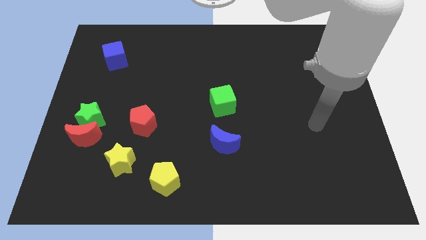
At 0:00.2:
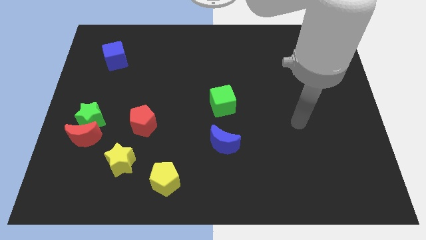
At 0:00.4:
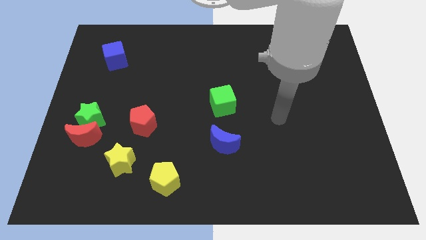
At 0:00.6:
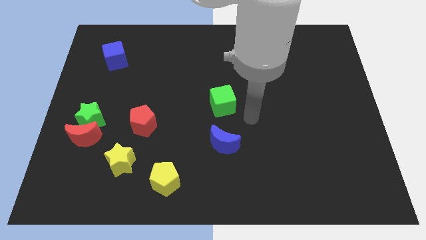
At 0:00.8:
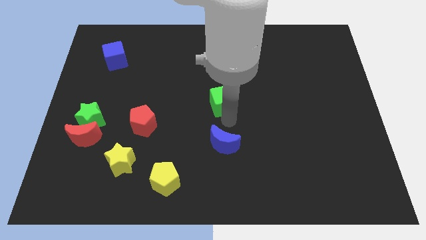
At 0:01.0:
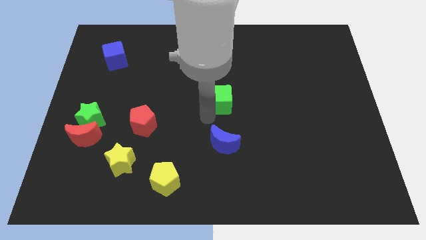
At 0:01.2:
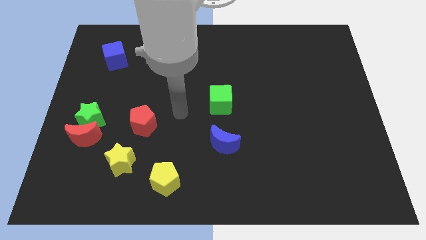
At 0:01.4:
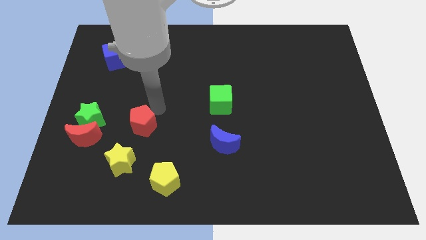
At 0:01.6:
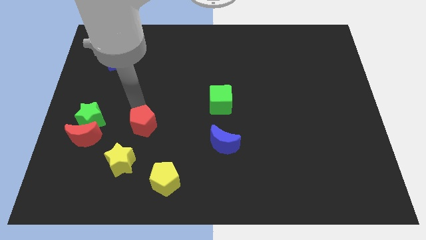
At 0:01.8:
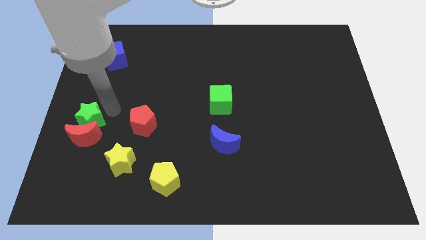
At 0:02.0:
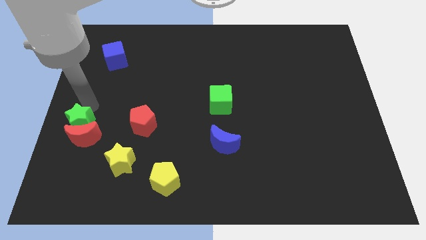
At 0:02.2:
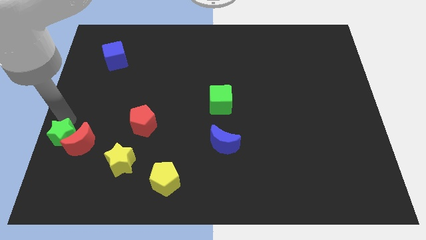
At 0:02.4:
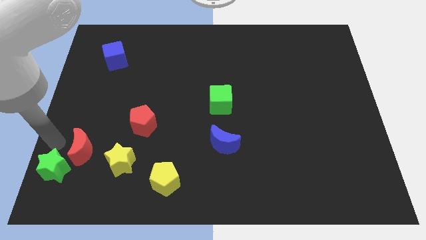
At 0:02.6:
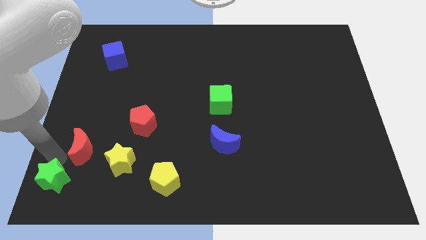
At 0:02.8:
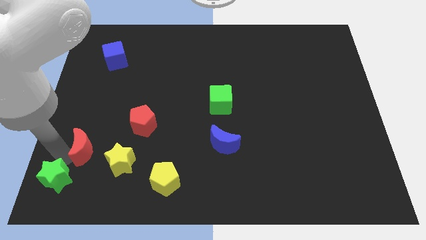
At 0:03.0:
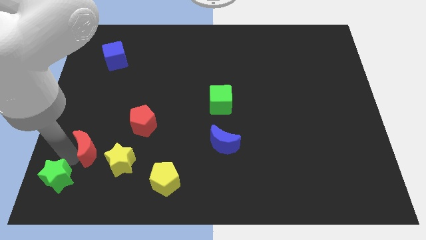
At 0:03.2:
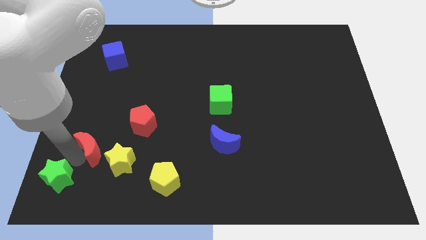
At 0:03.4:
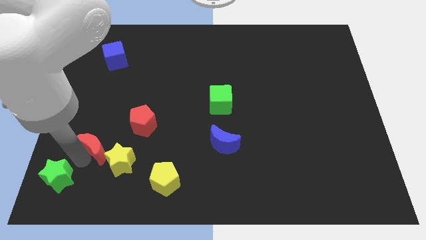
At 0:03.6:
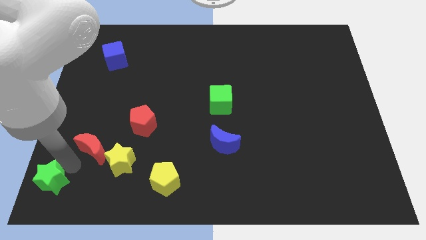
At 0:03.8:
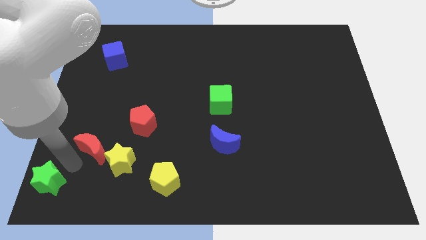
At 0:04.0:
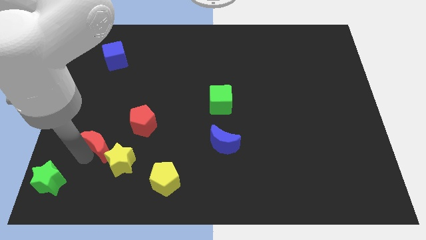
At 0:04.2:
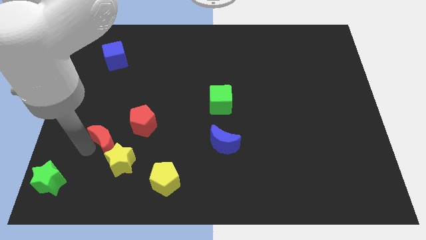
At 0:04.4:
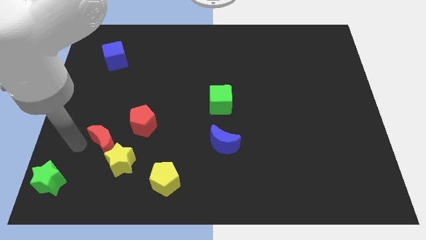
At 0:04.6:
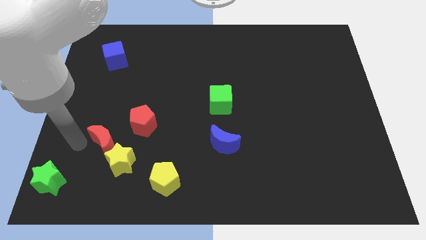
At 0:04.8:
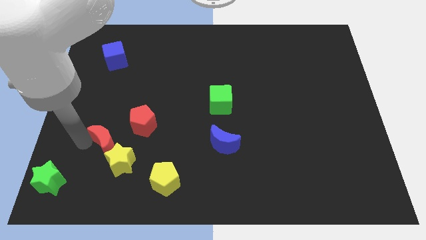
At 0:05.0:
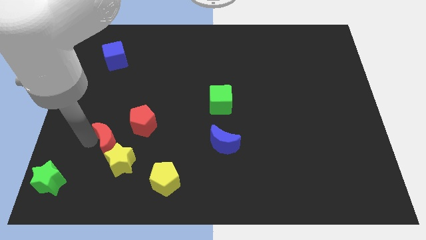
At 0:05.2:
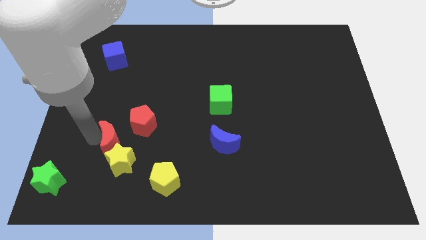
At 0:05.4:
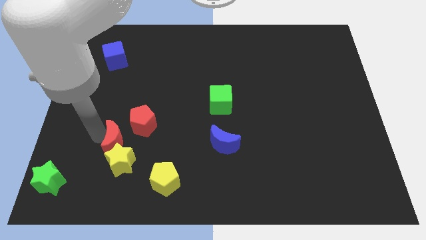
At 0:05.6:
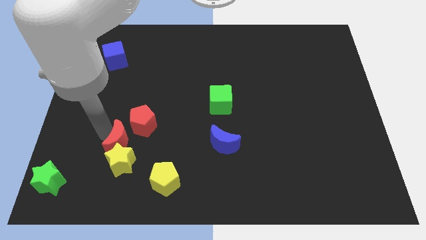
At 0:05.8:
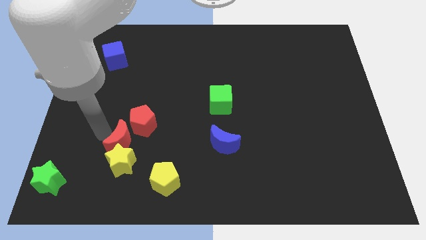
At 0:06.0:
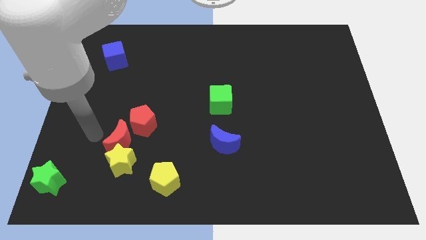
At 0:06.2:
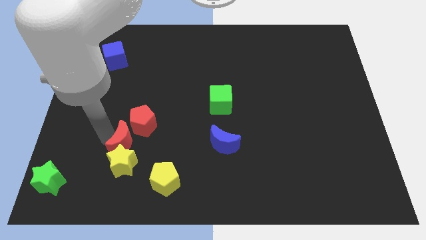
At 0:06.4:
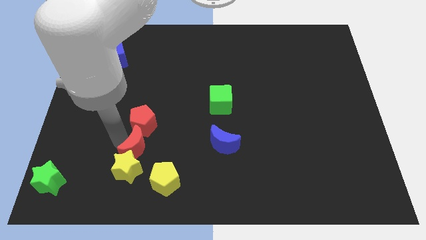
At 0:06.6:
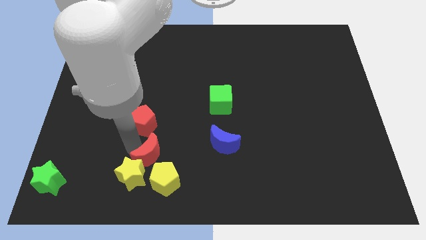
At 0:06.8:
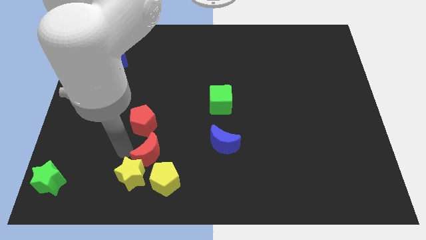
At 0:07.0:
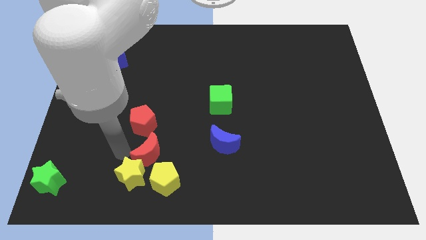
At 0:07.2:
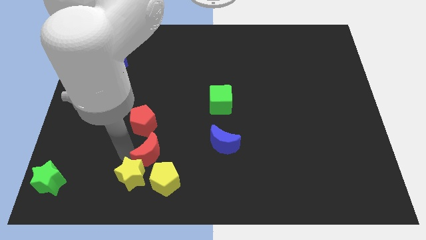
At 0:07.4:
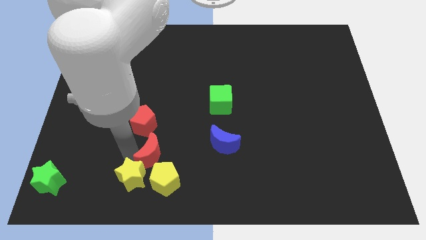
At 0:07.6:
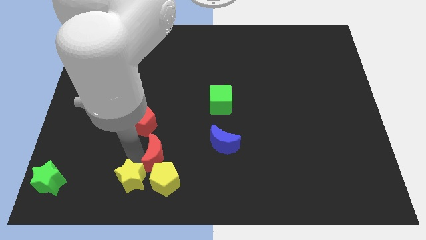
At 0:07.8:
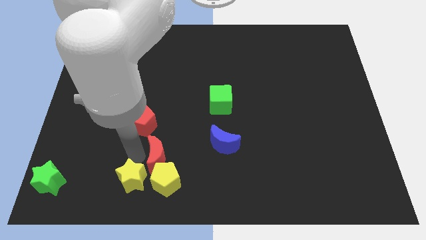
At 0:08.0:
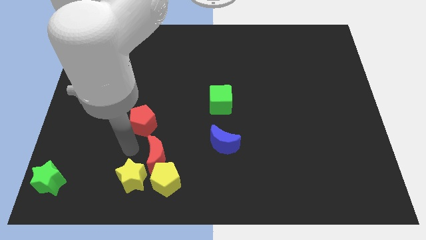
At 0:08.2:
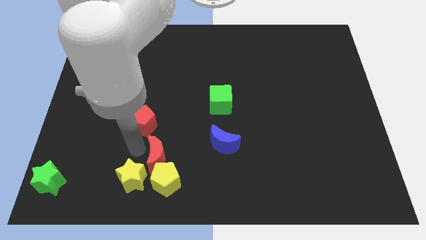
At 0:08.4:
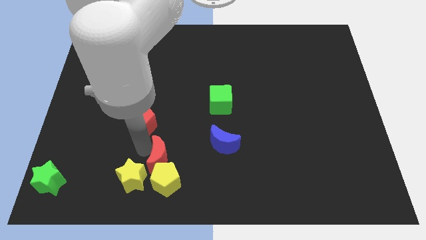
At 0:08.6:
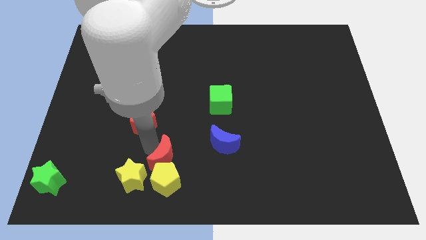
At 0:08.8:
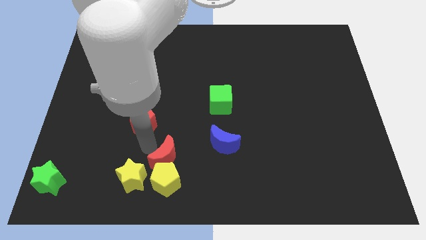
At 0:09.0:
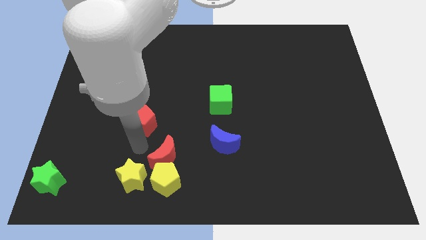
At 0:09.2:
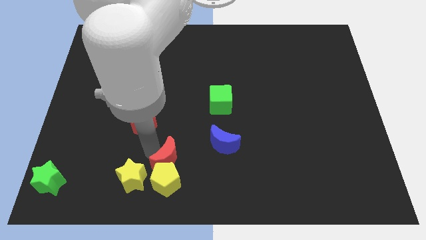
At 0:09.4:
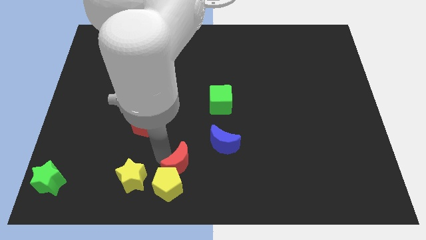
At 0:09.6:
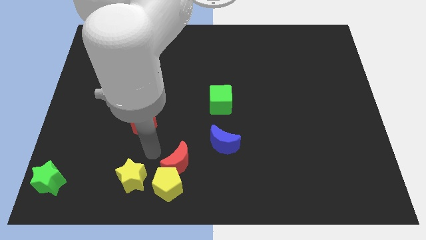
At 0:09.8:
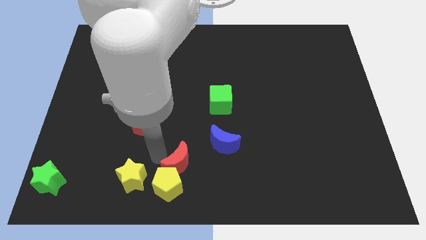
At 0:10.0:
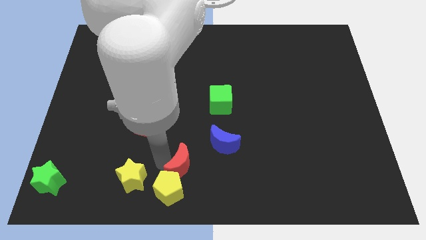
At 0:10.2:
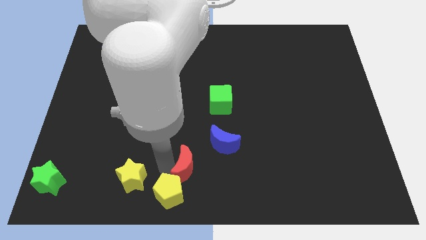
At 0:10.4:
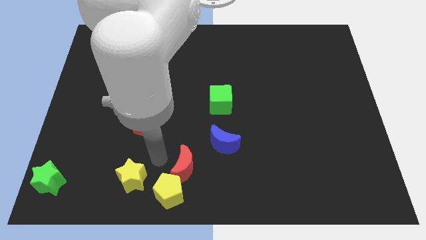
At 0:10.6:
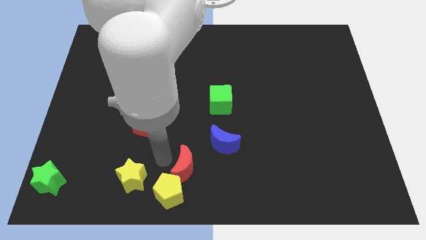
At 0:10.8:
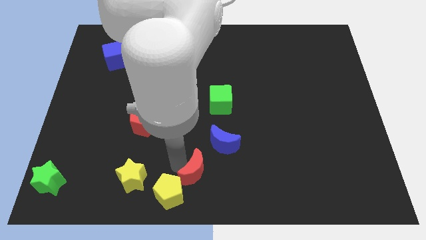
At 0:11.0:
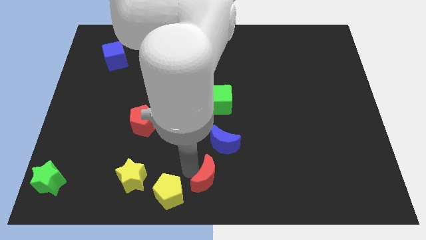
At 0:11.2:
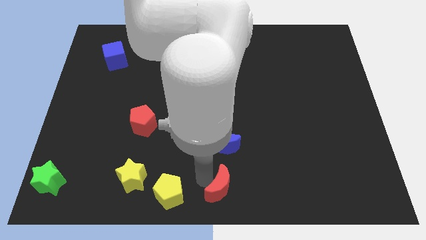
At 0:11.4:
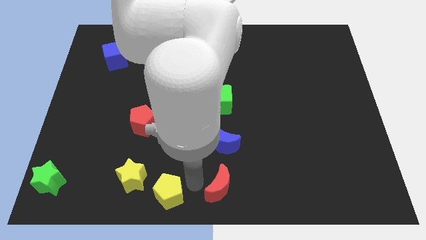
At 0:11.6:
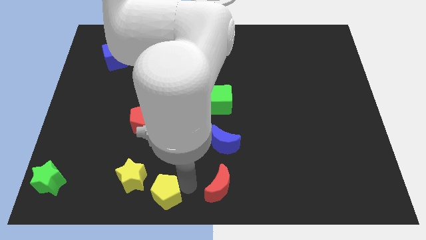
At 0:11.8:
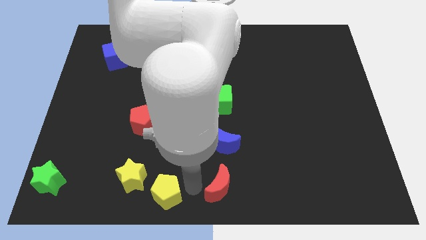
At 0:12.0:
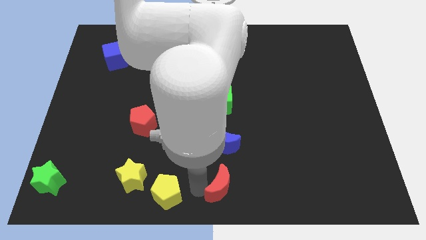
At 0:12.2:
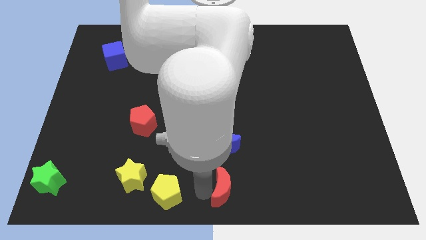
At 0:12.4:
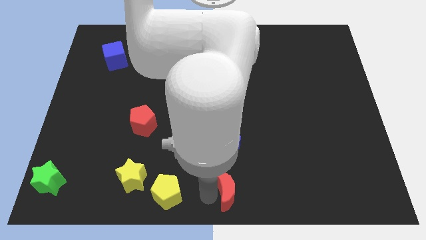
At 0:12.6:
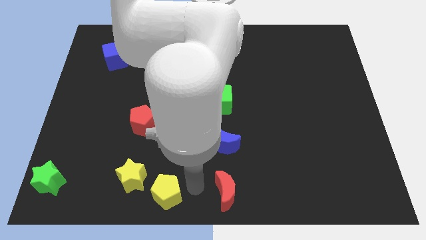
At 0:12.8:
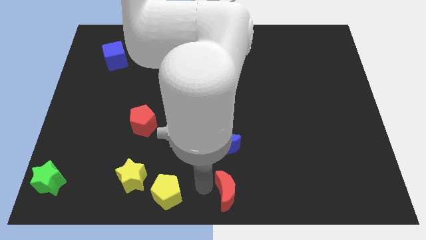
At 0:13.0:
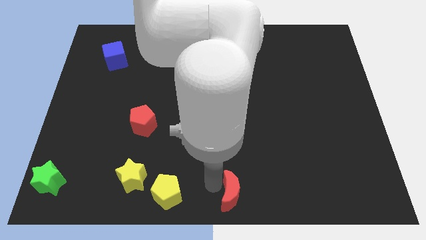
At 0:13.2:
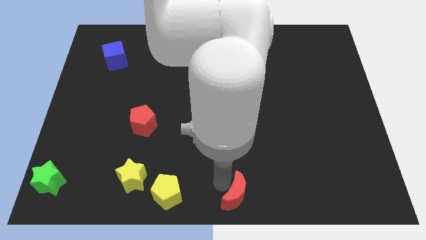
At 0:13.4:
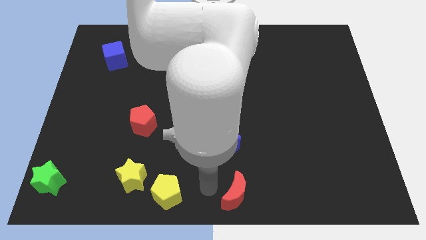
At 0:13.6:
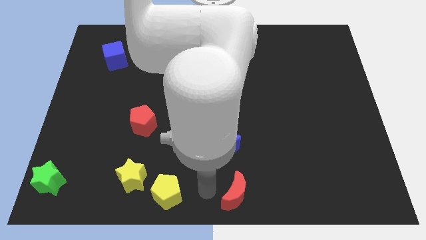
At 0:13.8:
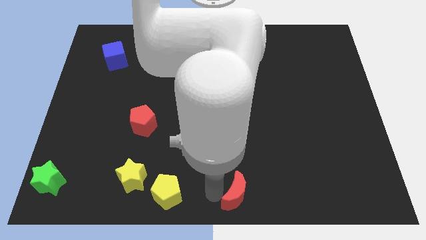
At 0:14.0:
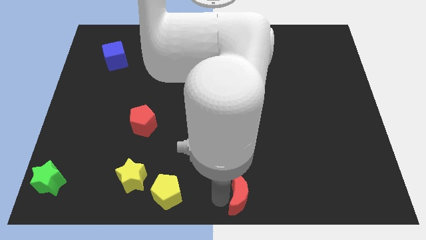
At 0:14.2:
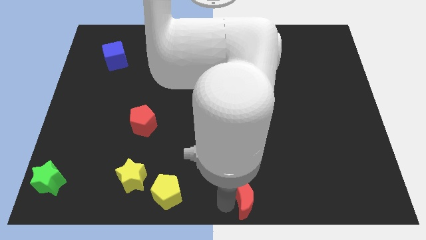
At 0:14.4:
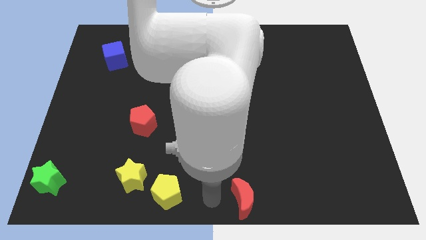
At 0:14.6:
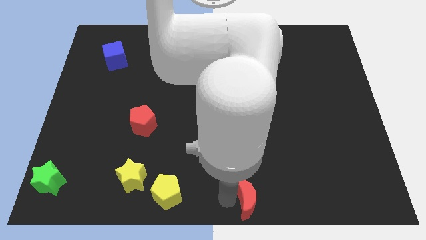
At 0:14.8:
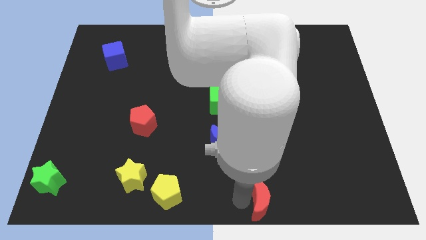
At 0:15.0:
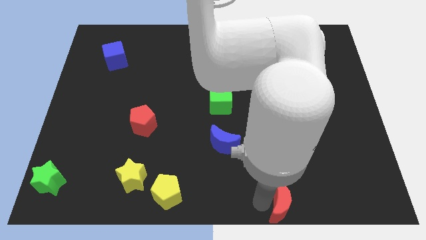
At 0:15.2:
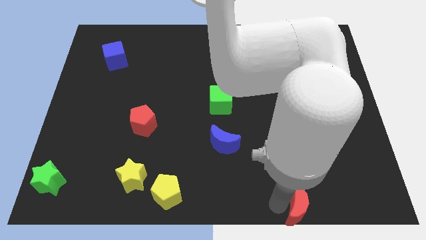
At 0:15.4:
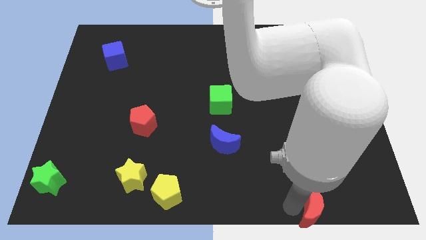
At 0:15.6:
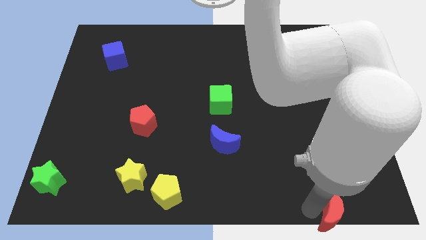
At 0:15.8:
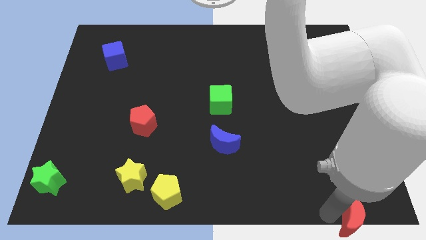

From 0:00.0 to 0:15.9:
put the red moon to the bottom right corner
